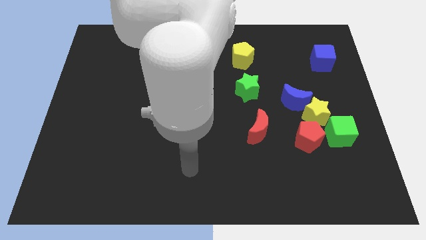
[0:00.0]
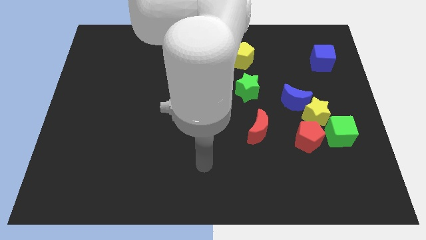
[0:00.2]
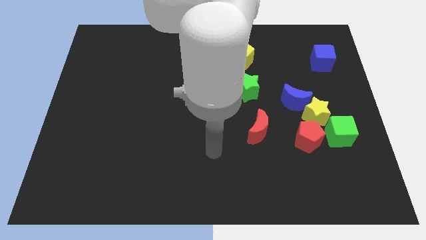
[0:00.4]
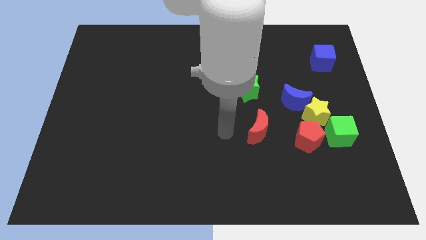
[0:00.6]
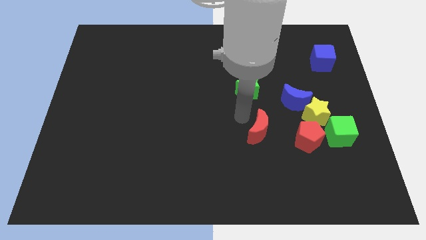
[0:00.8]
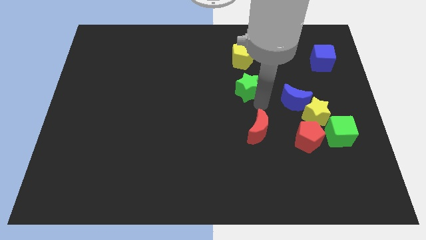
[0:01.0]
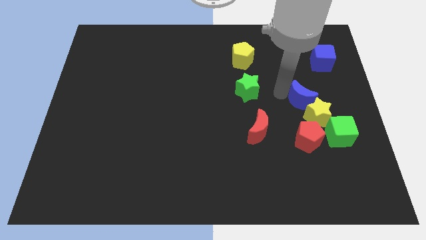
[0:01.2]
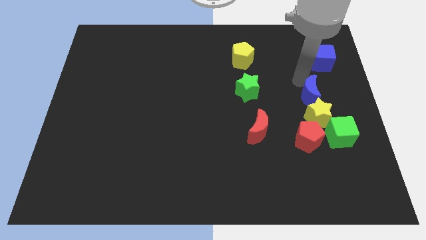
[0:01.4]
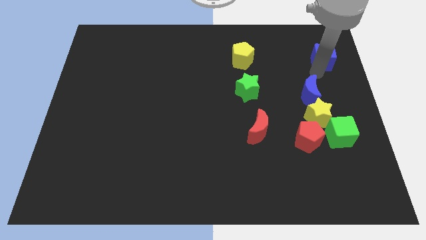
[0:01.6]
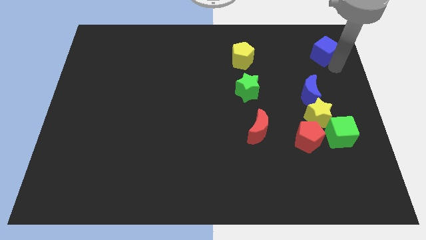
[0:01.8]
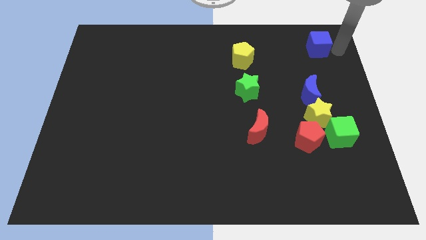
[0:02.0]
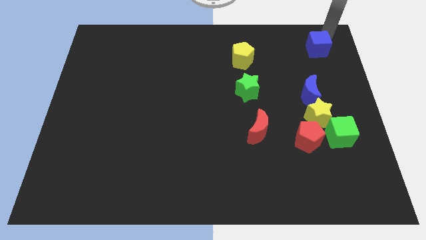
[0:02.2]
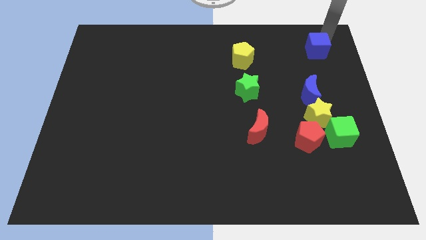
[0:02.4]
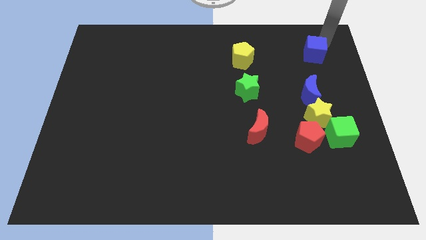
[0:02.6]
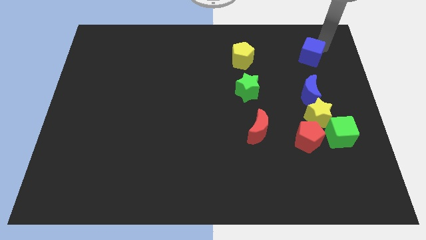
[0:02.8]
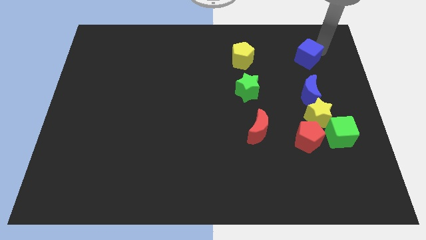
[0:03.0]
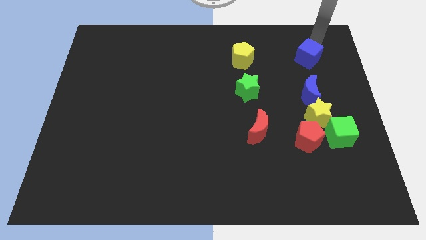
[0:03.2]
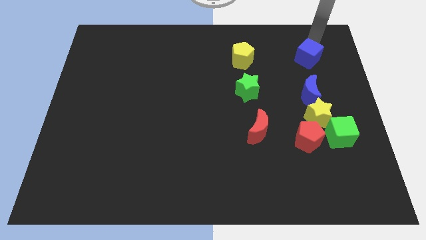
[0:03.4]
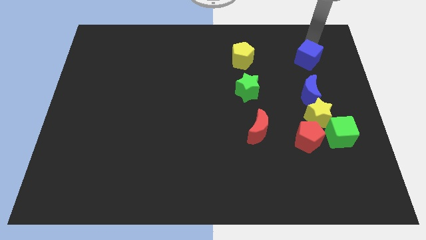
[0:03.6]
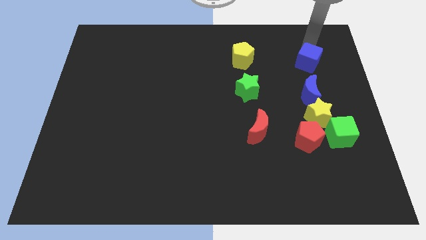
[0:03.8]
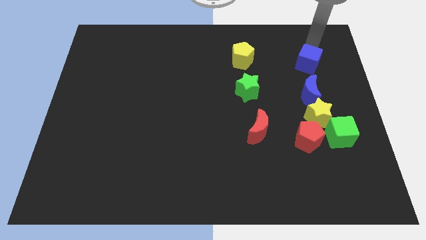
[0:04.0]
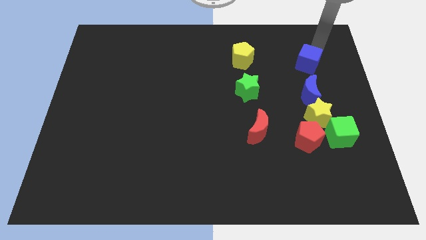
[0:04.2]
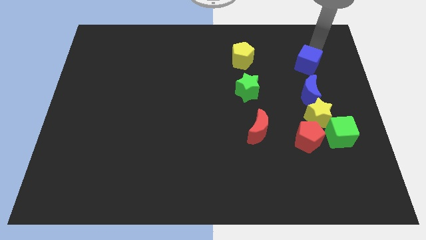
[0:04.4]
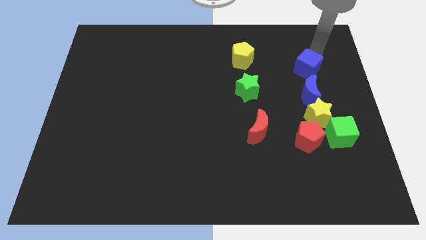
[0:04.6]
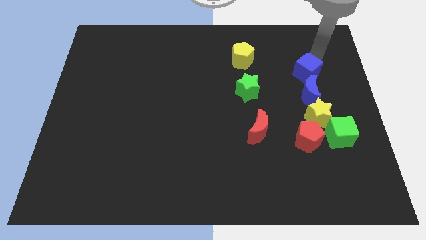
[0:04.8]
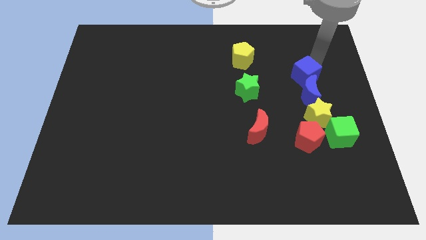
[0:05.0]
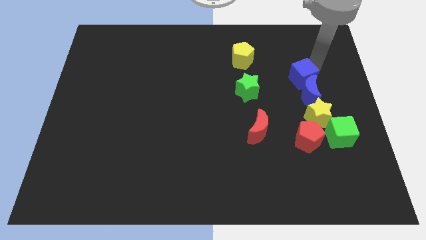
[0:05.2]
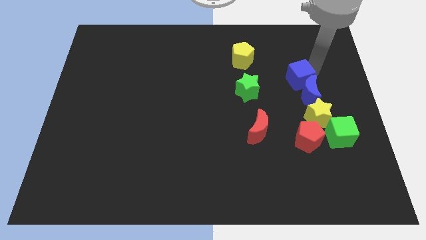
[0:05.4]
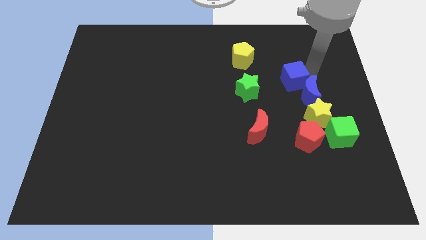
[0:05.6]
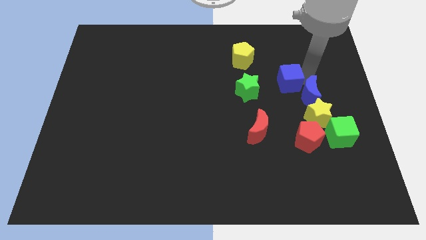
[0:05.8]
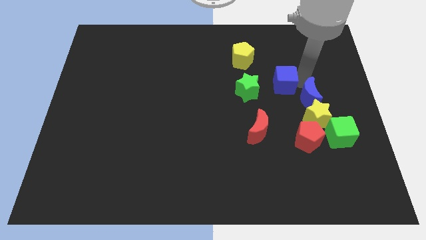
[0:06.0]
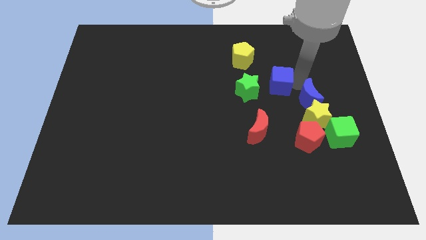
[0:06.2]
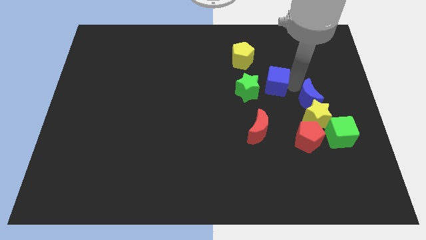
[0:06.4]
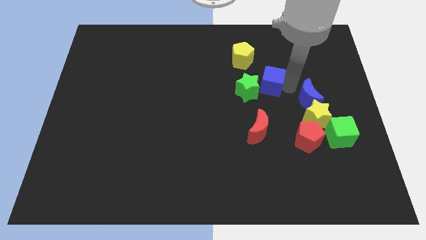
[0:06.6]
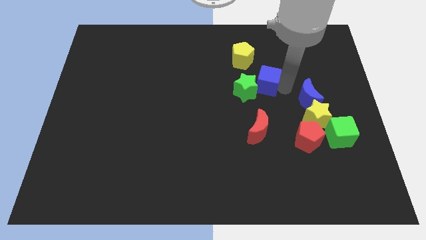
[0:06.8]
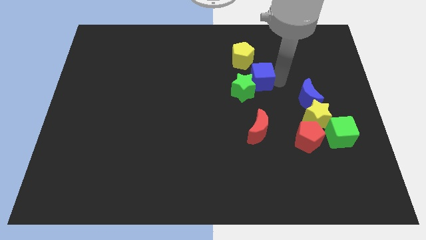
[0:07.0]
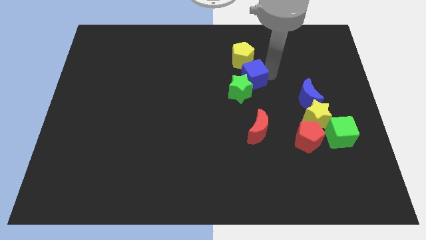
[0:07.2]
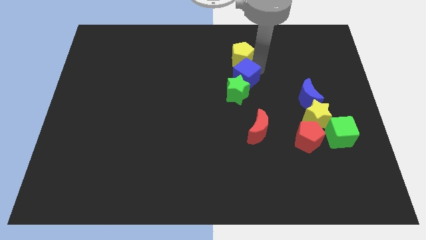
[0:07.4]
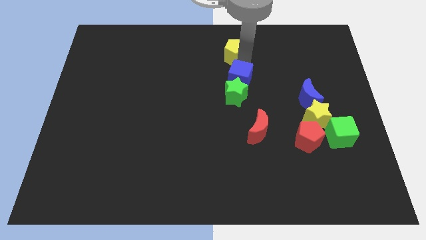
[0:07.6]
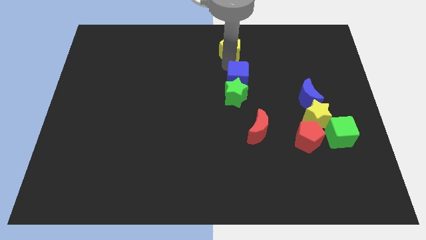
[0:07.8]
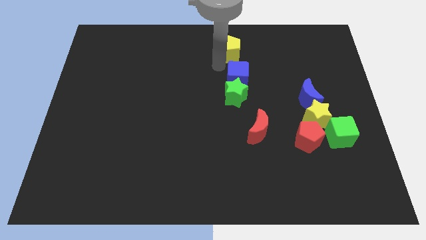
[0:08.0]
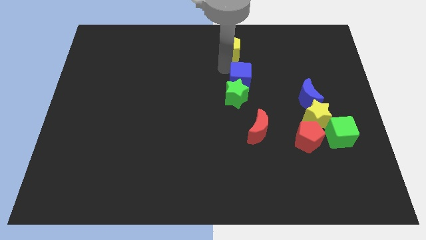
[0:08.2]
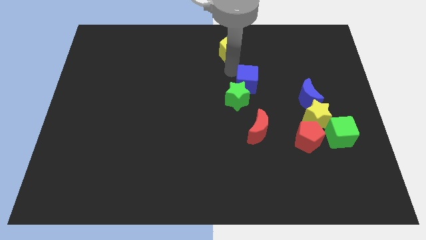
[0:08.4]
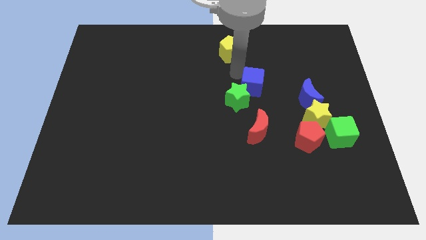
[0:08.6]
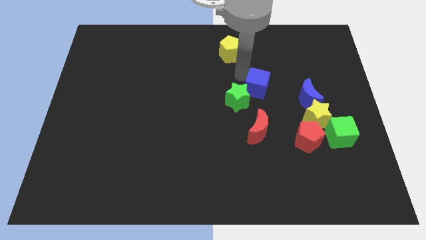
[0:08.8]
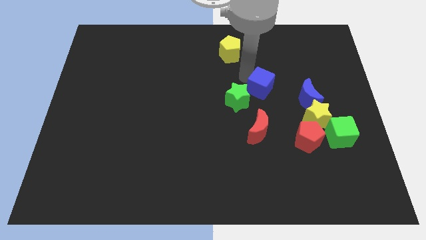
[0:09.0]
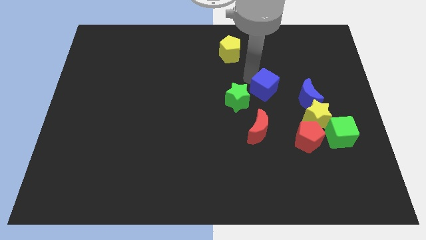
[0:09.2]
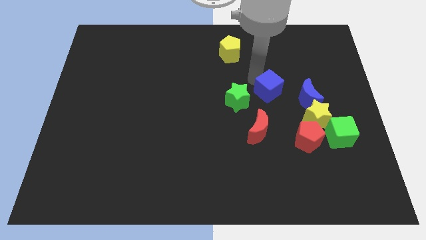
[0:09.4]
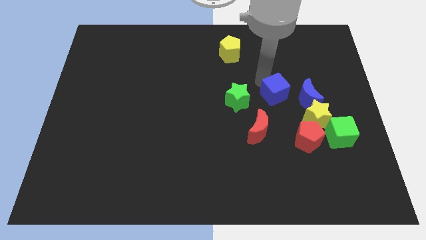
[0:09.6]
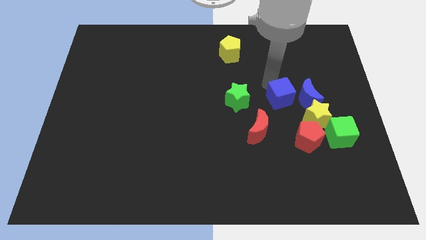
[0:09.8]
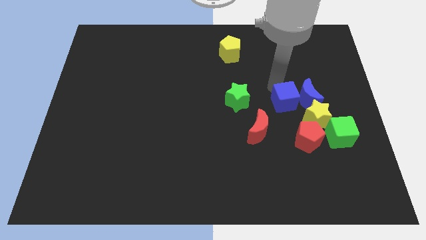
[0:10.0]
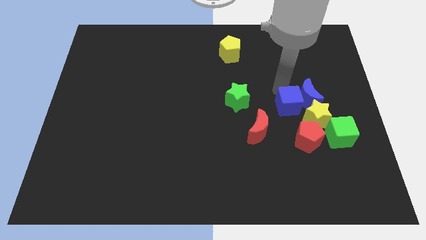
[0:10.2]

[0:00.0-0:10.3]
slide the blue cube to the top left of the red pentagon

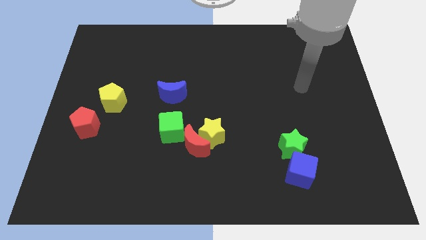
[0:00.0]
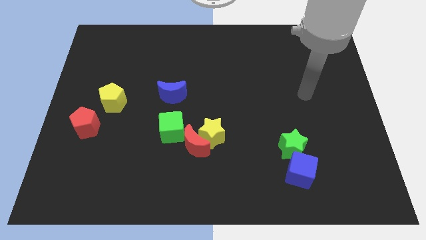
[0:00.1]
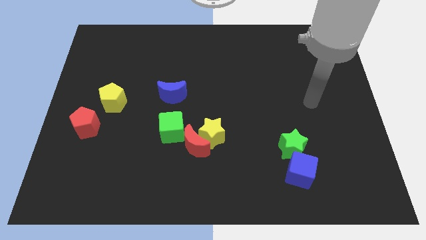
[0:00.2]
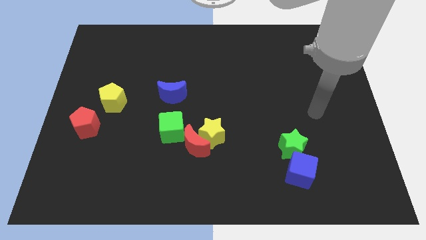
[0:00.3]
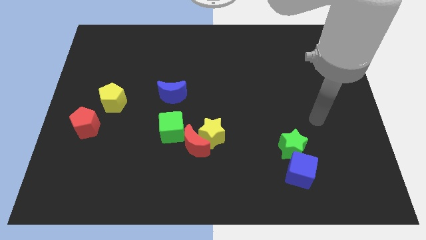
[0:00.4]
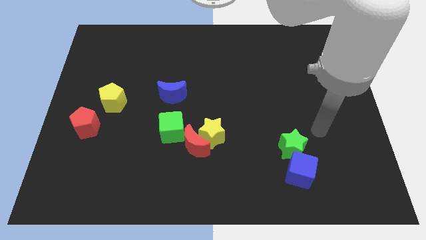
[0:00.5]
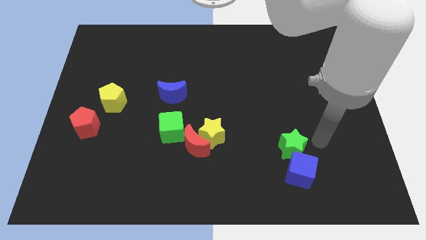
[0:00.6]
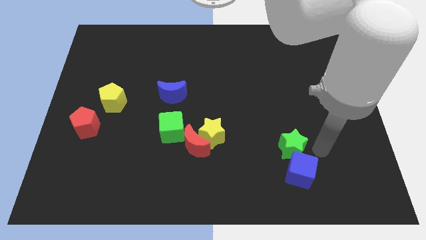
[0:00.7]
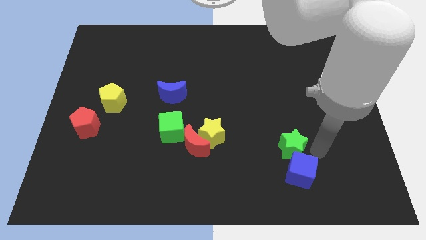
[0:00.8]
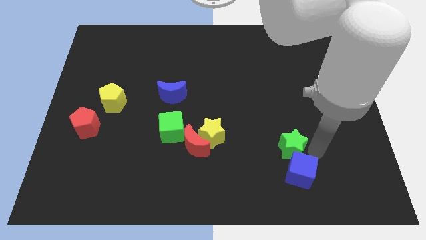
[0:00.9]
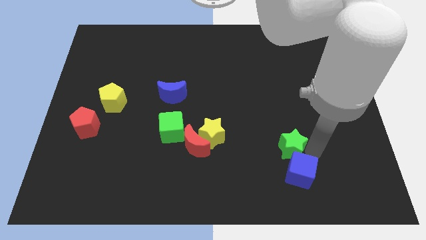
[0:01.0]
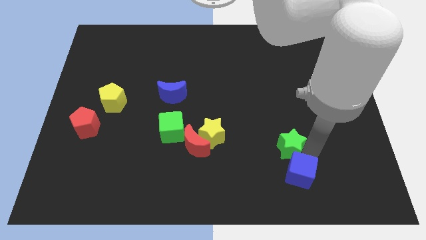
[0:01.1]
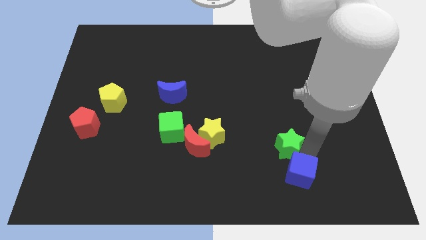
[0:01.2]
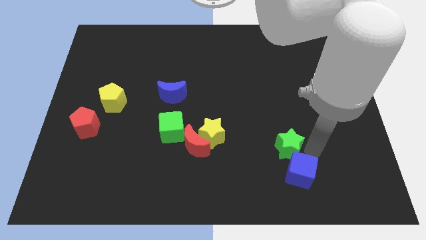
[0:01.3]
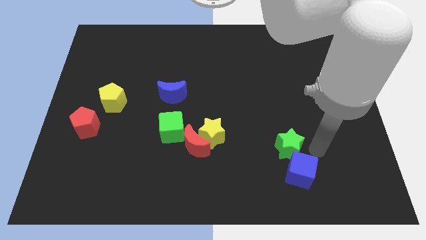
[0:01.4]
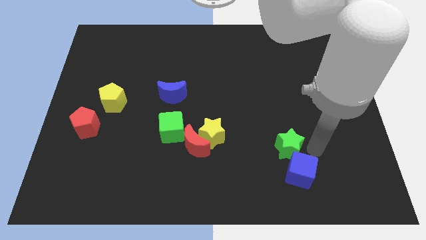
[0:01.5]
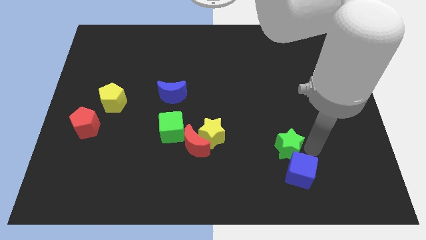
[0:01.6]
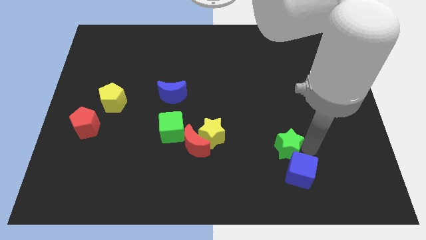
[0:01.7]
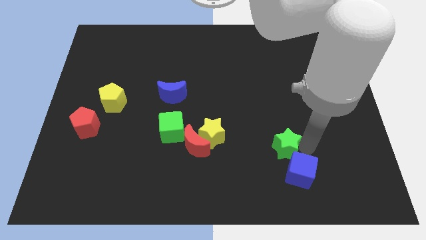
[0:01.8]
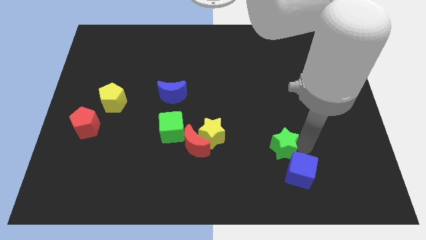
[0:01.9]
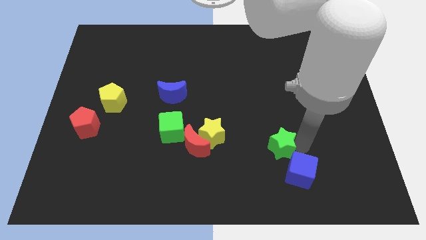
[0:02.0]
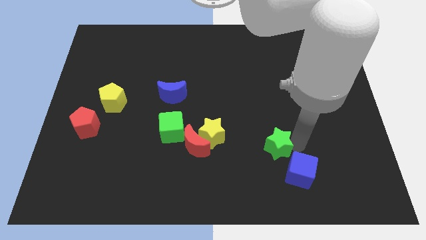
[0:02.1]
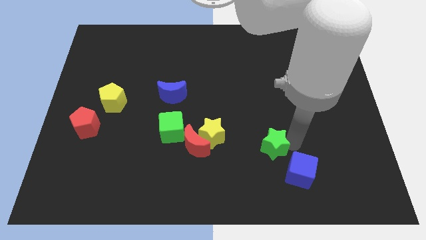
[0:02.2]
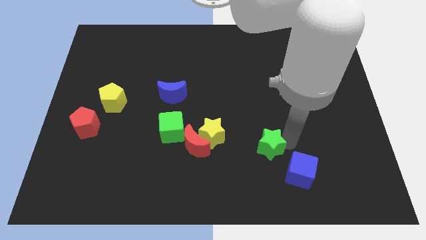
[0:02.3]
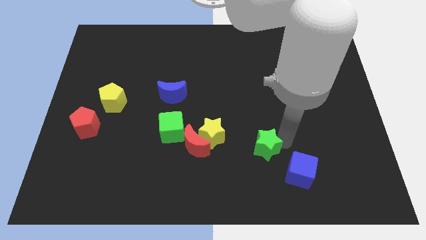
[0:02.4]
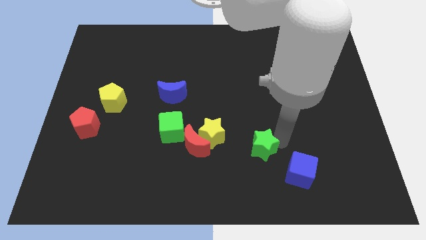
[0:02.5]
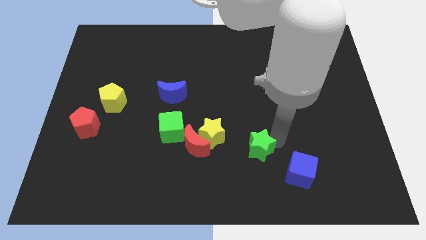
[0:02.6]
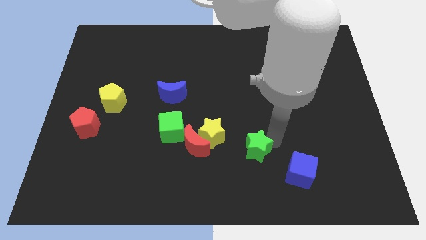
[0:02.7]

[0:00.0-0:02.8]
put the green star diagonally down and to the right of the yellow star
